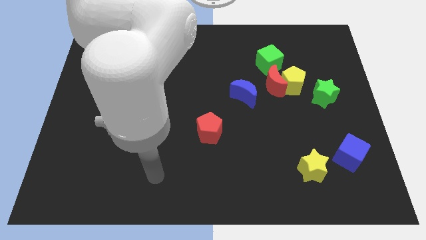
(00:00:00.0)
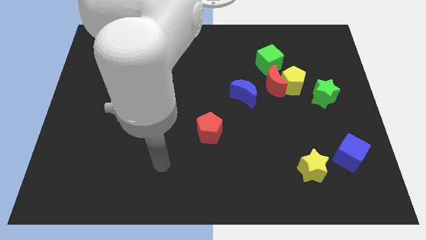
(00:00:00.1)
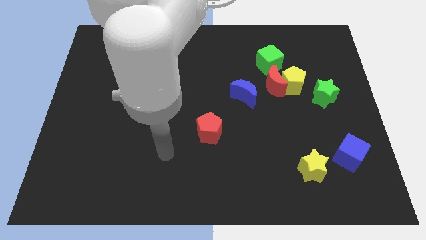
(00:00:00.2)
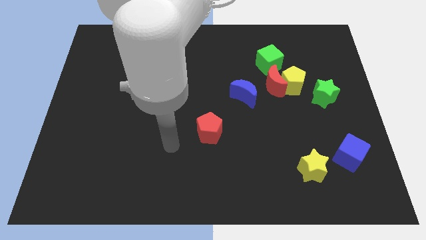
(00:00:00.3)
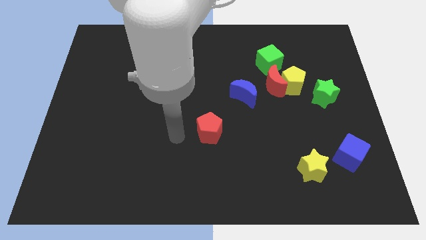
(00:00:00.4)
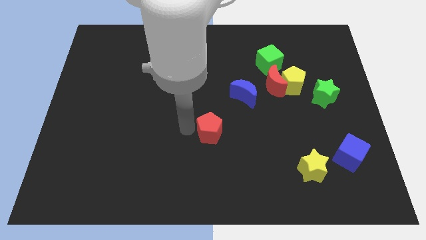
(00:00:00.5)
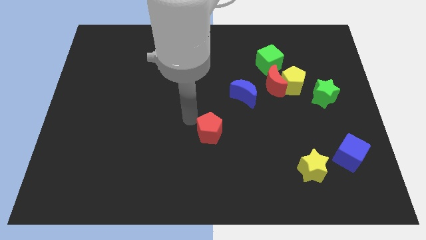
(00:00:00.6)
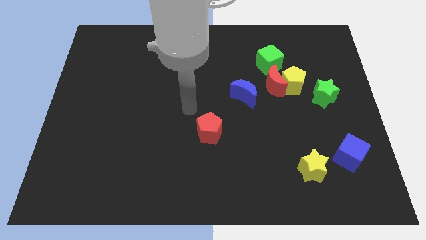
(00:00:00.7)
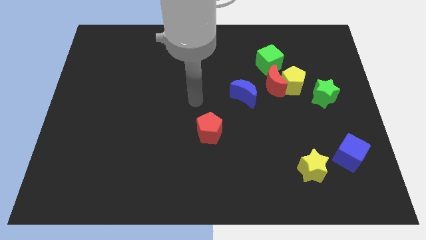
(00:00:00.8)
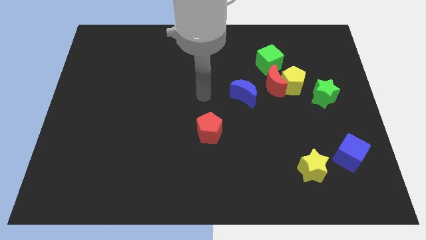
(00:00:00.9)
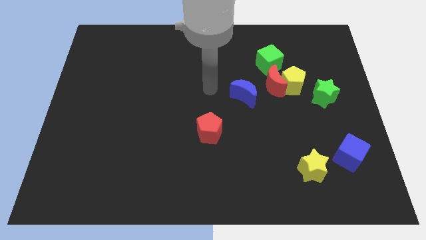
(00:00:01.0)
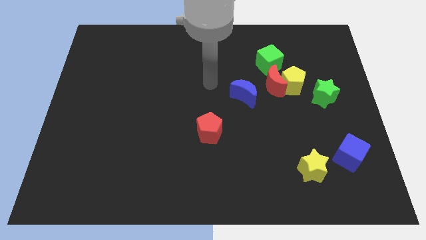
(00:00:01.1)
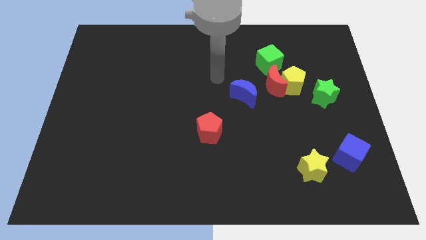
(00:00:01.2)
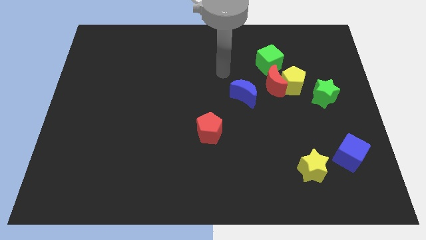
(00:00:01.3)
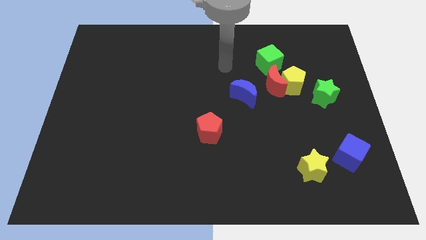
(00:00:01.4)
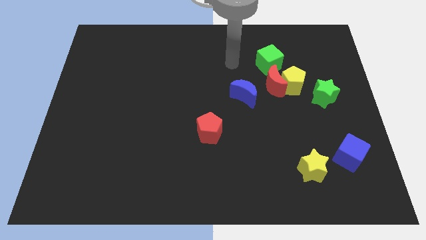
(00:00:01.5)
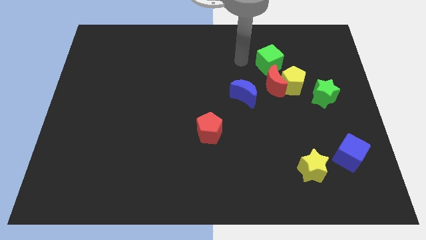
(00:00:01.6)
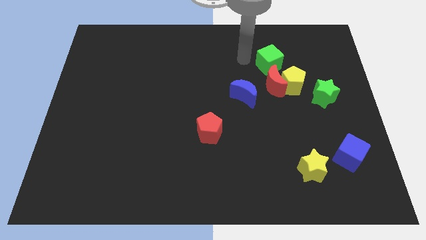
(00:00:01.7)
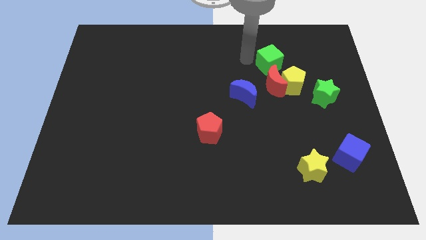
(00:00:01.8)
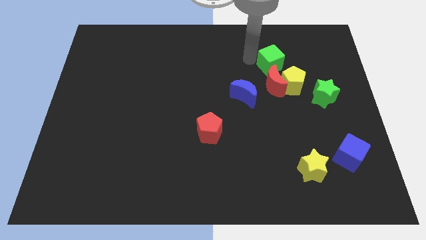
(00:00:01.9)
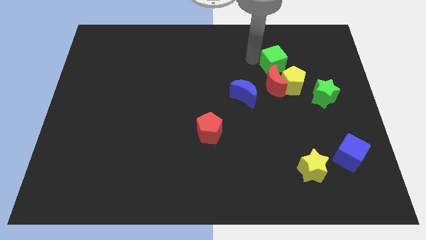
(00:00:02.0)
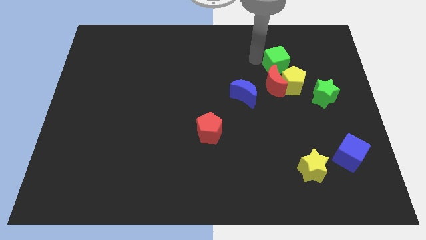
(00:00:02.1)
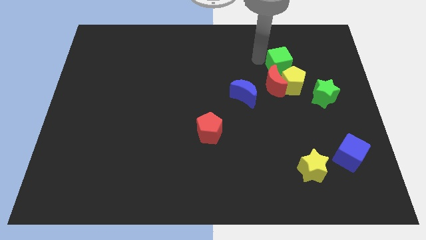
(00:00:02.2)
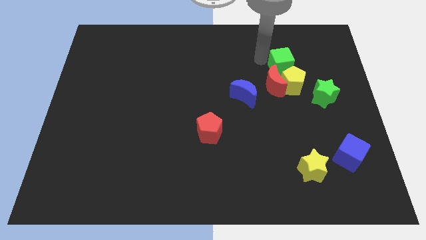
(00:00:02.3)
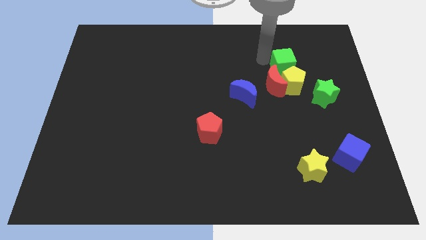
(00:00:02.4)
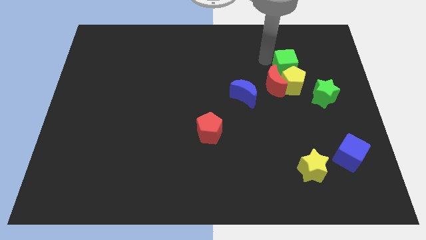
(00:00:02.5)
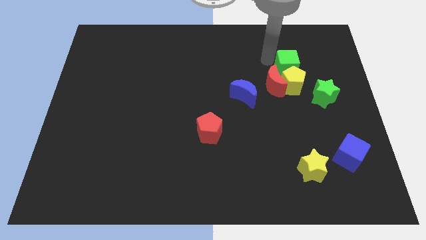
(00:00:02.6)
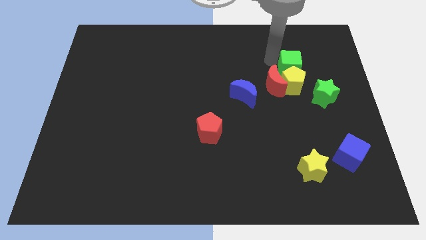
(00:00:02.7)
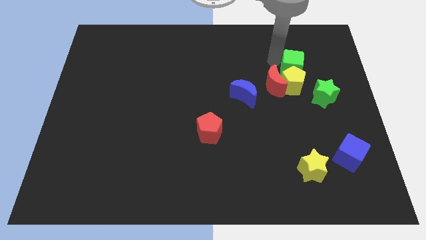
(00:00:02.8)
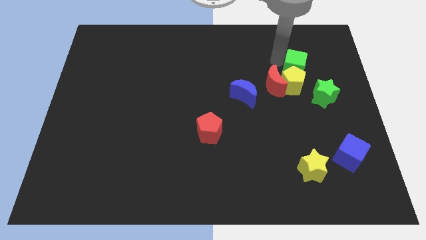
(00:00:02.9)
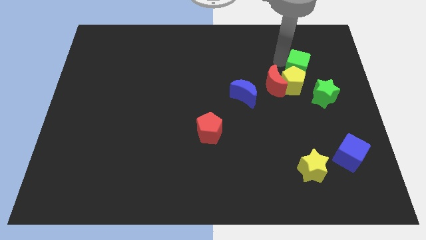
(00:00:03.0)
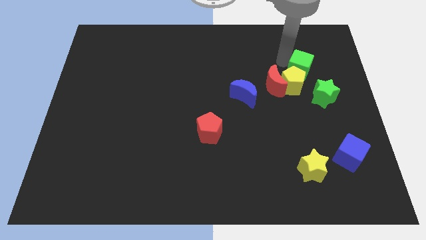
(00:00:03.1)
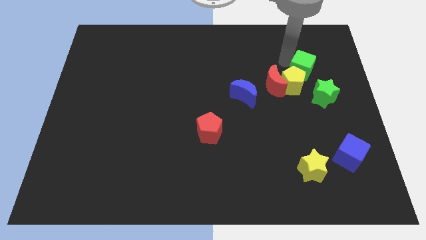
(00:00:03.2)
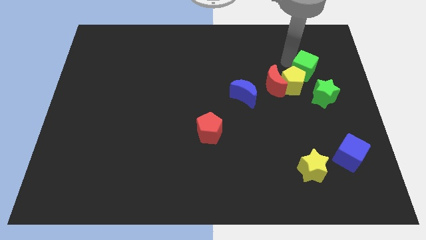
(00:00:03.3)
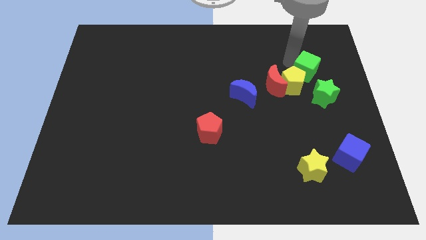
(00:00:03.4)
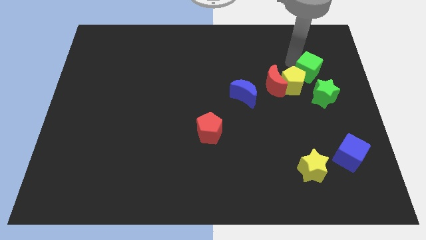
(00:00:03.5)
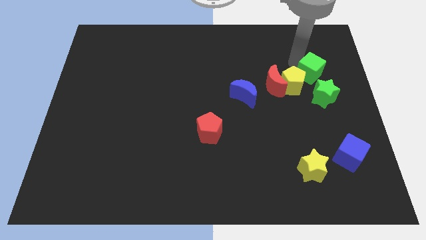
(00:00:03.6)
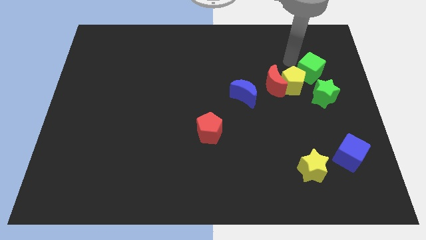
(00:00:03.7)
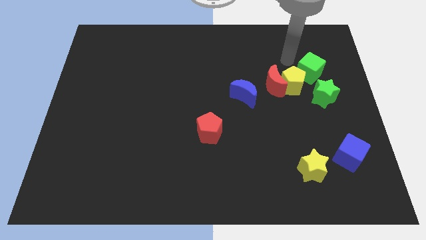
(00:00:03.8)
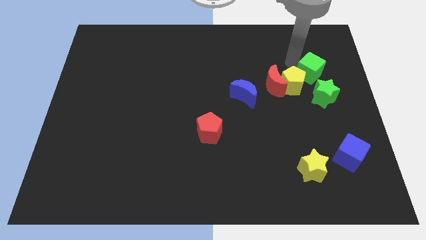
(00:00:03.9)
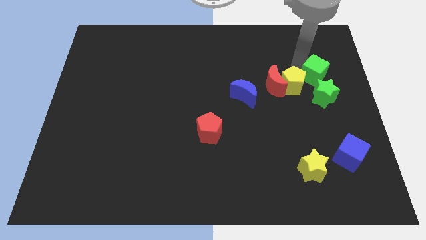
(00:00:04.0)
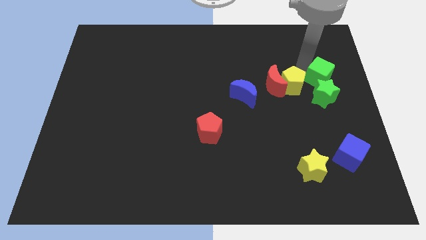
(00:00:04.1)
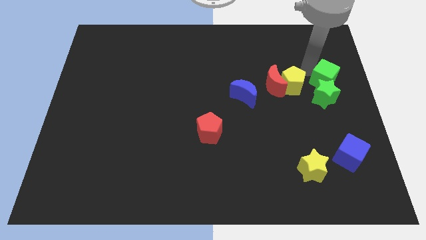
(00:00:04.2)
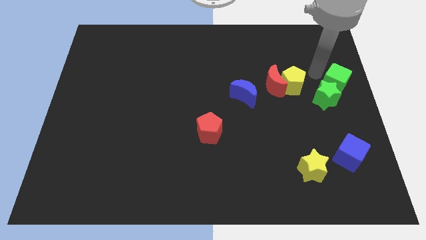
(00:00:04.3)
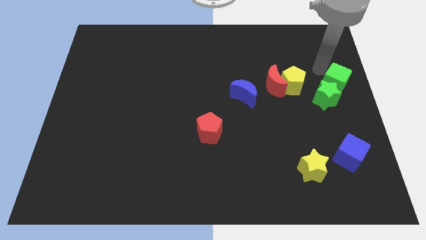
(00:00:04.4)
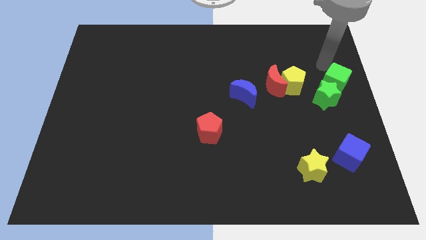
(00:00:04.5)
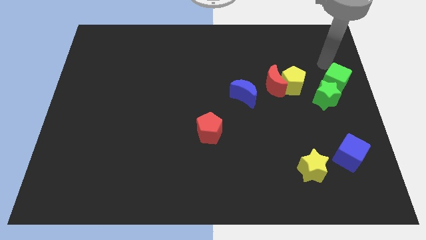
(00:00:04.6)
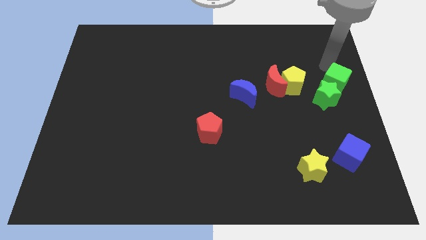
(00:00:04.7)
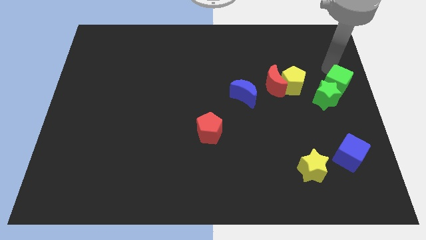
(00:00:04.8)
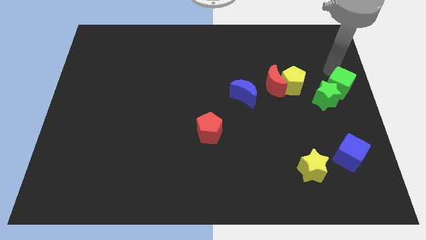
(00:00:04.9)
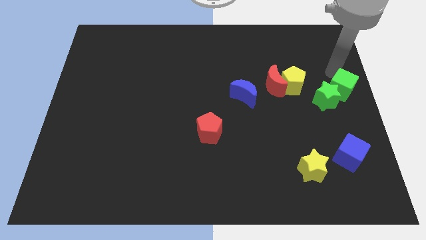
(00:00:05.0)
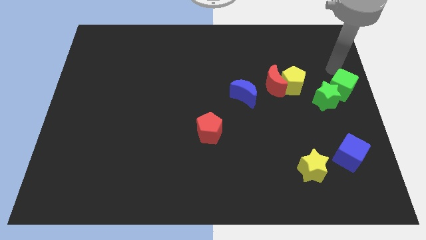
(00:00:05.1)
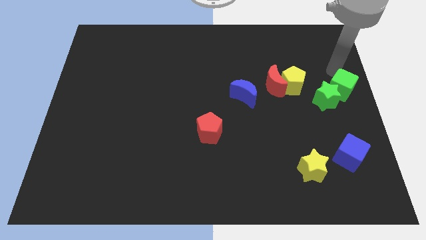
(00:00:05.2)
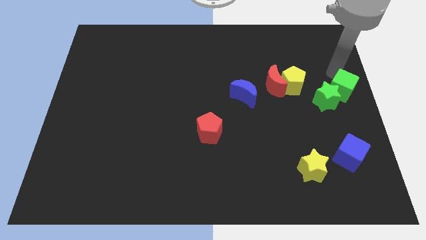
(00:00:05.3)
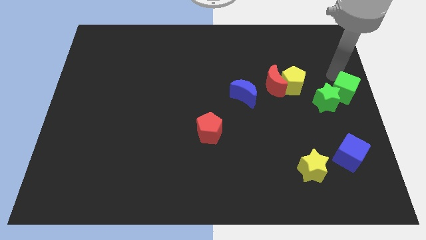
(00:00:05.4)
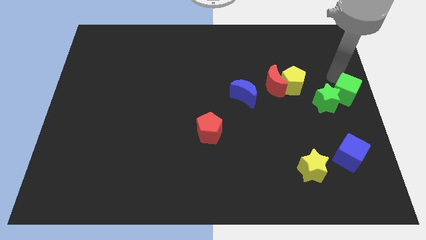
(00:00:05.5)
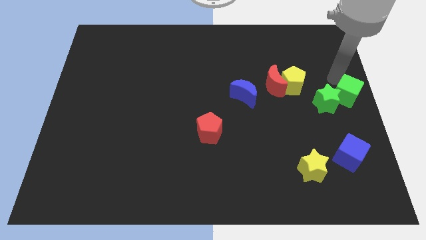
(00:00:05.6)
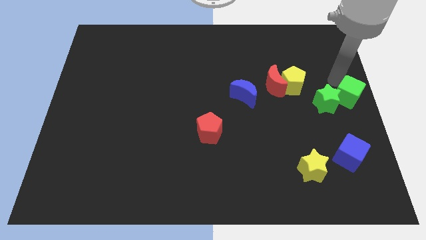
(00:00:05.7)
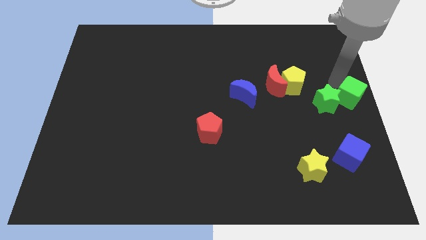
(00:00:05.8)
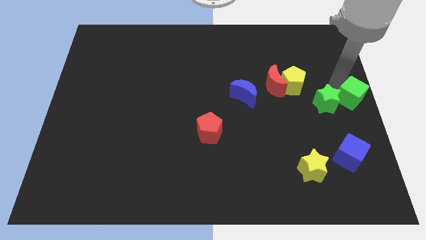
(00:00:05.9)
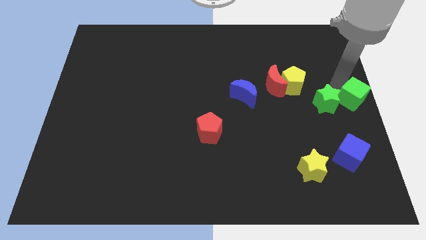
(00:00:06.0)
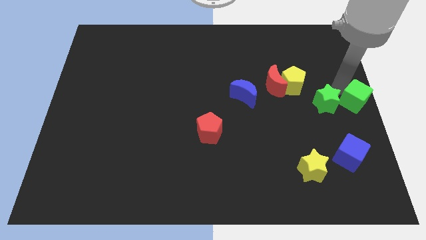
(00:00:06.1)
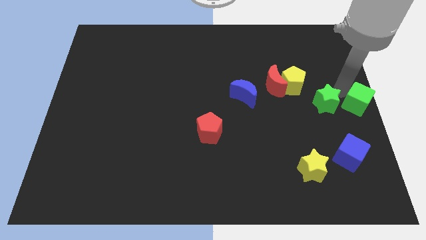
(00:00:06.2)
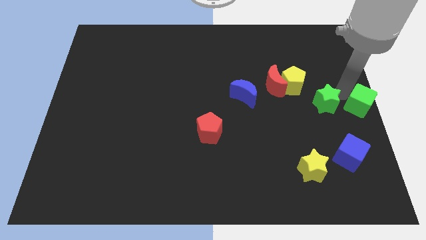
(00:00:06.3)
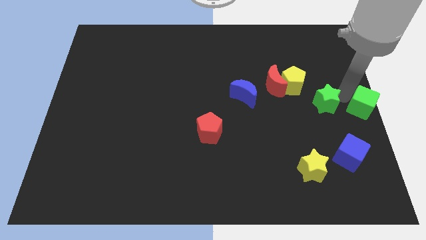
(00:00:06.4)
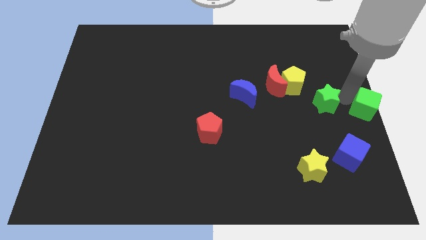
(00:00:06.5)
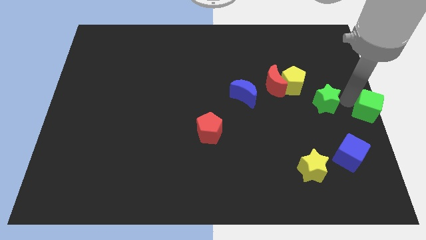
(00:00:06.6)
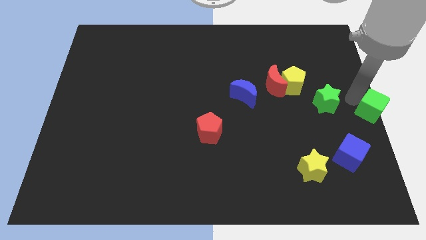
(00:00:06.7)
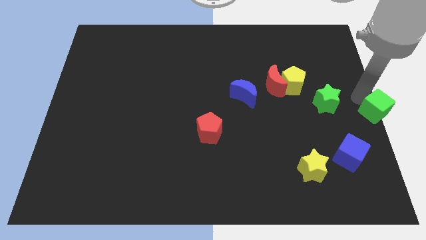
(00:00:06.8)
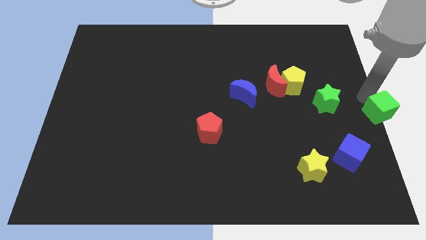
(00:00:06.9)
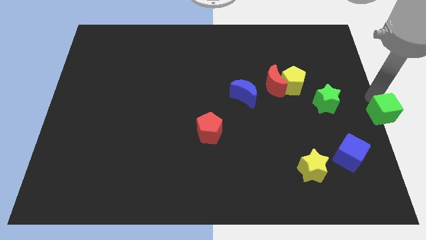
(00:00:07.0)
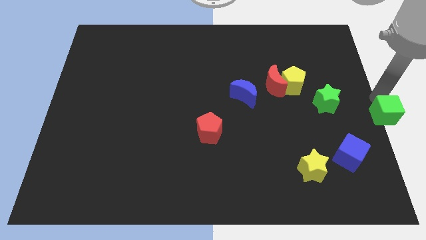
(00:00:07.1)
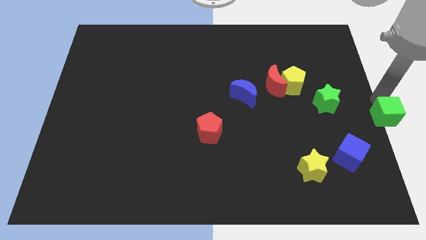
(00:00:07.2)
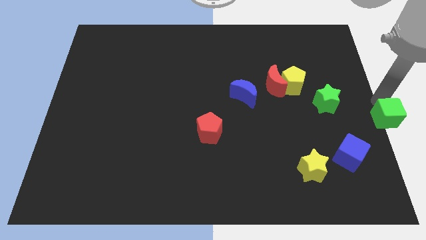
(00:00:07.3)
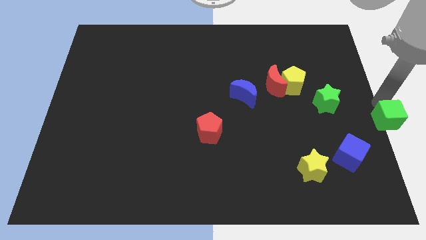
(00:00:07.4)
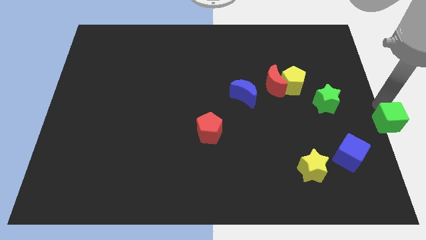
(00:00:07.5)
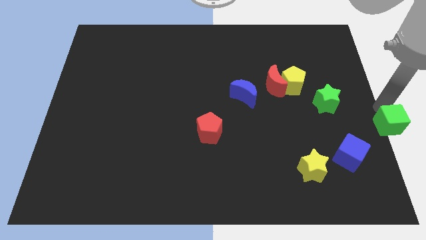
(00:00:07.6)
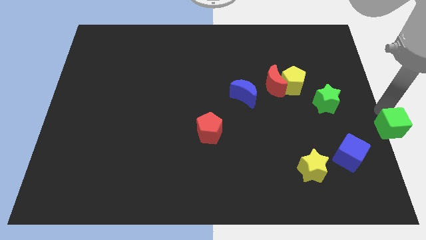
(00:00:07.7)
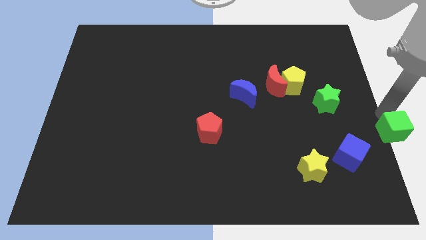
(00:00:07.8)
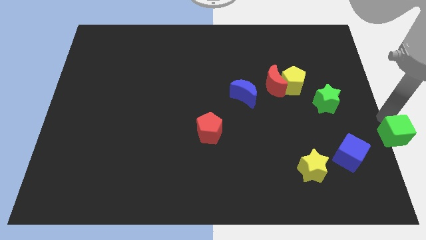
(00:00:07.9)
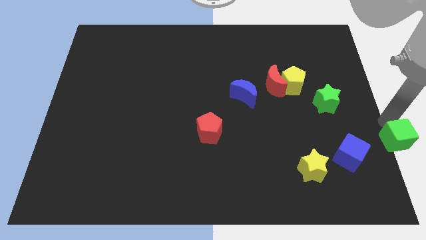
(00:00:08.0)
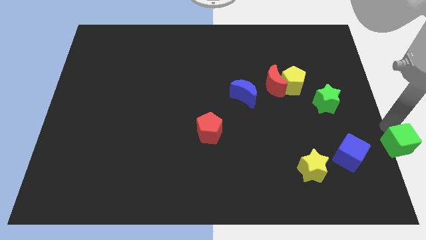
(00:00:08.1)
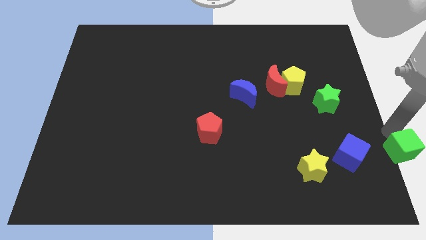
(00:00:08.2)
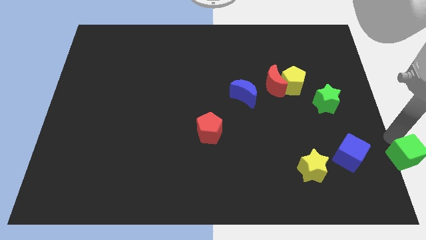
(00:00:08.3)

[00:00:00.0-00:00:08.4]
slide the green cube to the lower right corner
